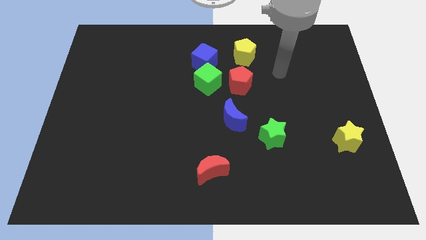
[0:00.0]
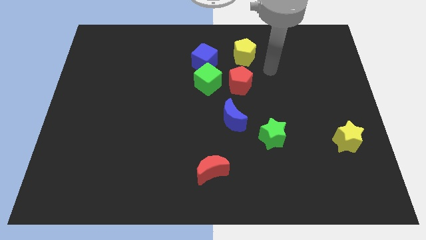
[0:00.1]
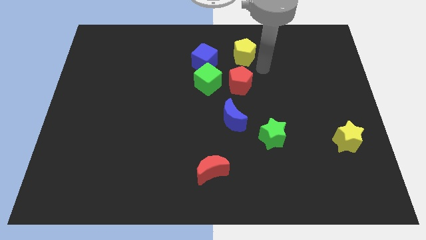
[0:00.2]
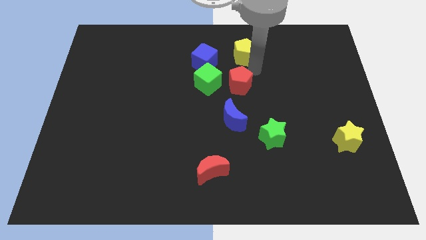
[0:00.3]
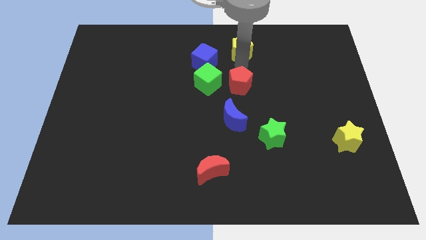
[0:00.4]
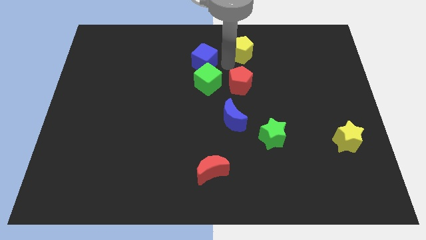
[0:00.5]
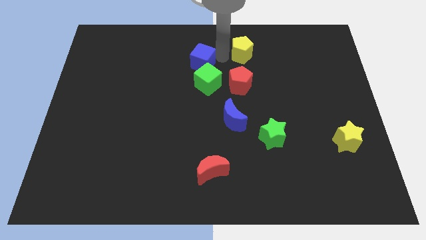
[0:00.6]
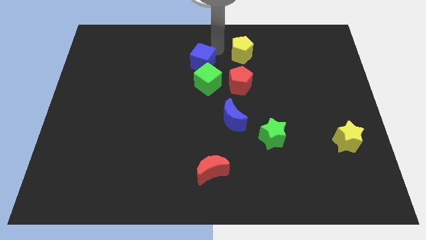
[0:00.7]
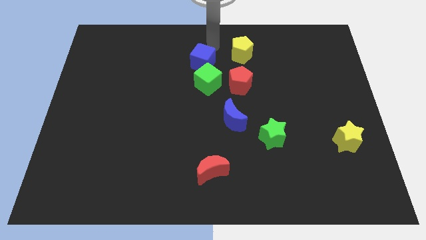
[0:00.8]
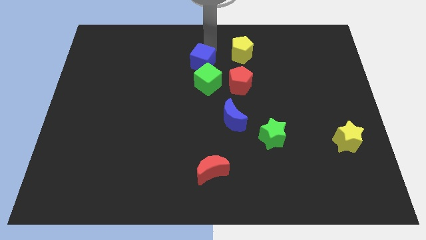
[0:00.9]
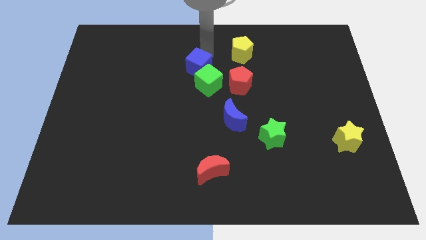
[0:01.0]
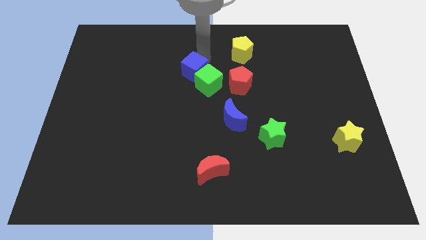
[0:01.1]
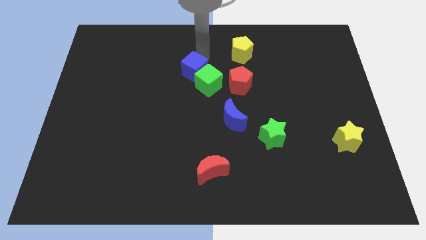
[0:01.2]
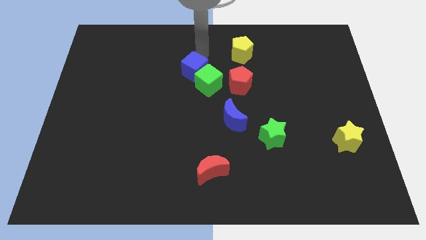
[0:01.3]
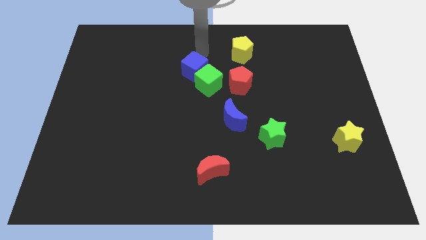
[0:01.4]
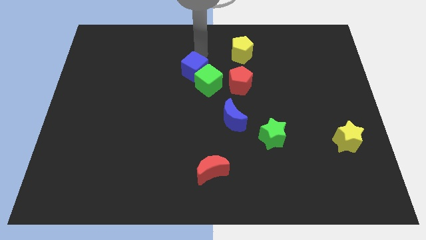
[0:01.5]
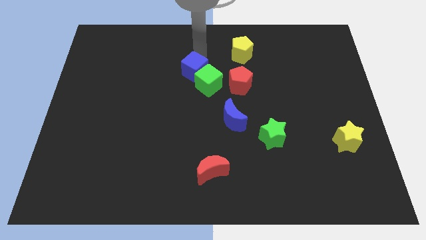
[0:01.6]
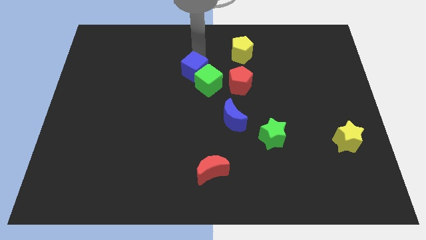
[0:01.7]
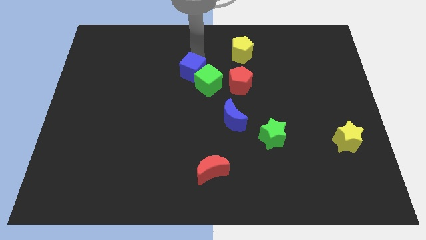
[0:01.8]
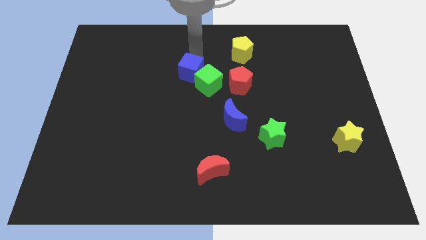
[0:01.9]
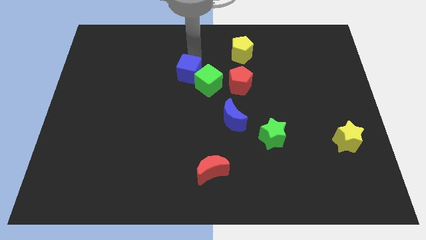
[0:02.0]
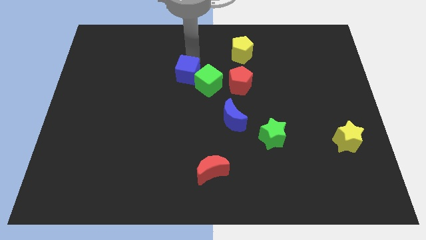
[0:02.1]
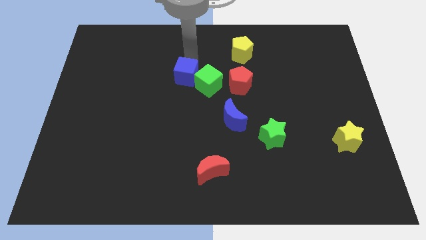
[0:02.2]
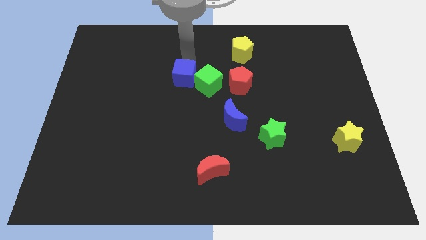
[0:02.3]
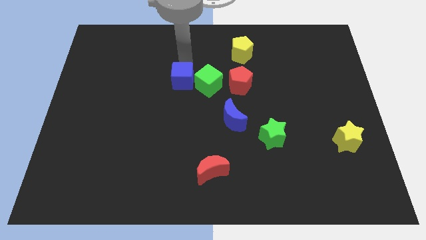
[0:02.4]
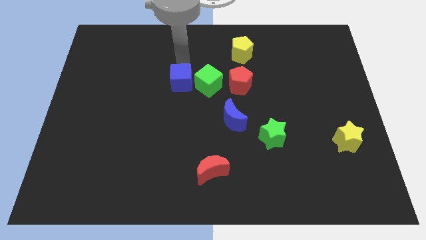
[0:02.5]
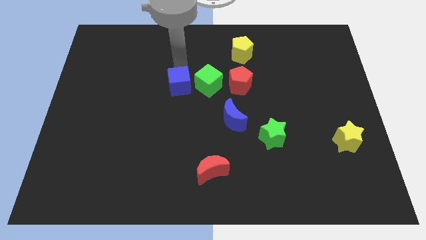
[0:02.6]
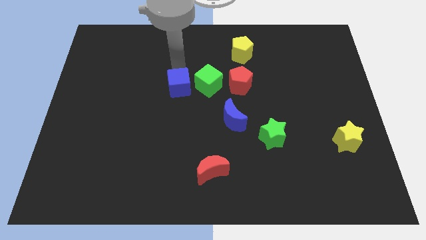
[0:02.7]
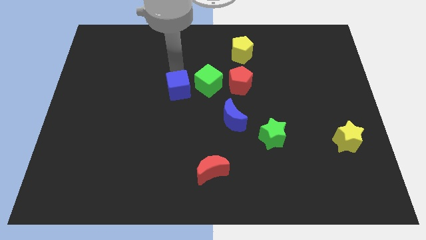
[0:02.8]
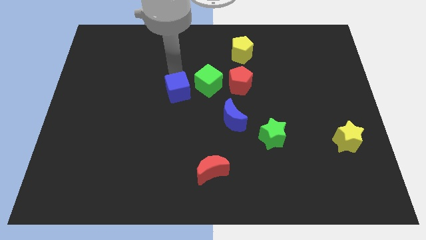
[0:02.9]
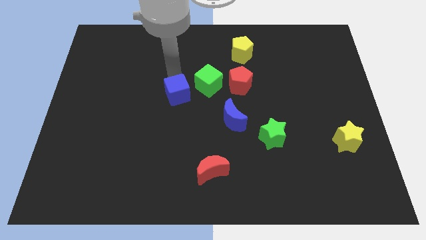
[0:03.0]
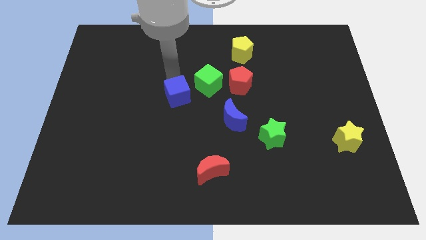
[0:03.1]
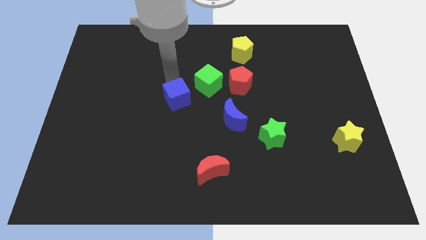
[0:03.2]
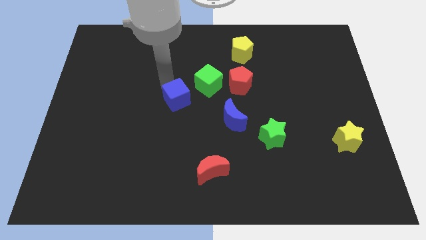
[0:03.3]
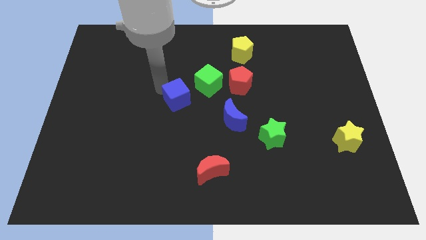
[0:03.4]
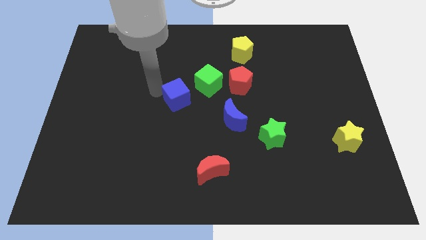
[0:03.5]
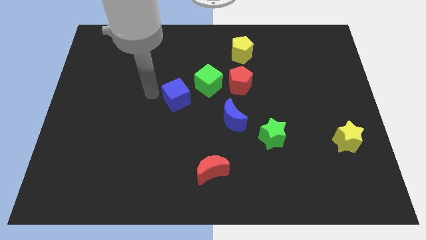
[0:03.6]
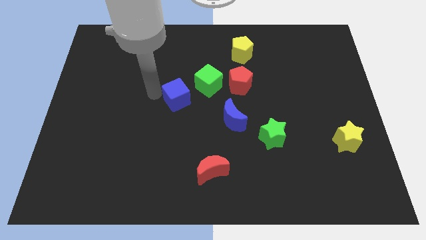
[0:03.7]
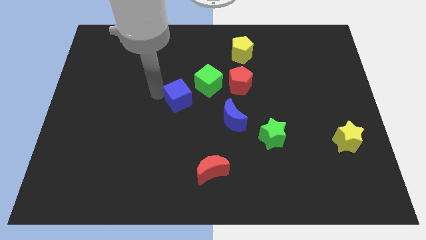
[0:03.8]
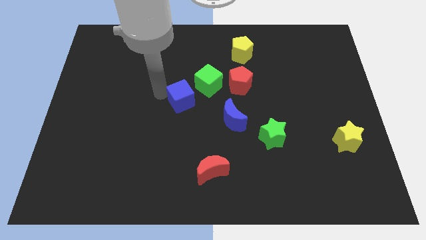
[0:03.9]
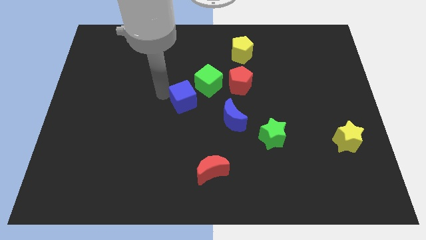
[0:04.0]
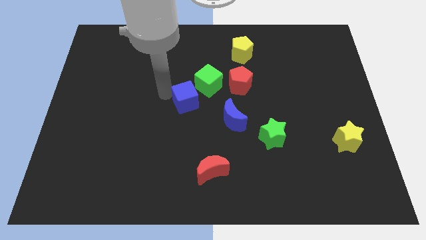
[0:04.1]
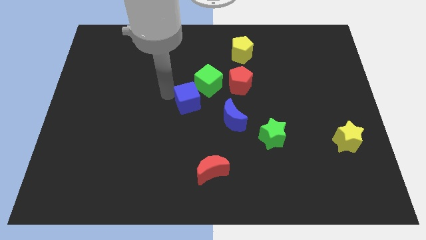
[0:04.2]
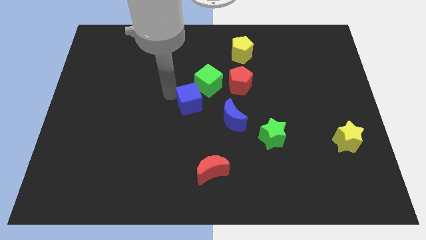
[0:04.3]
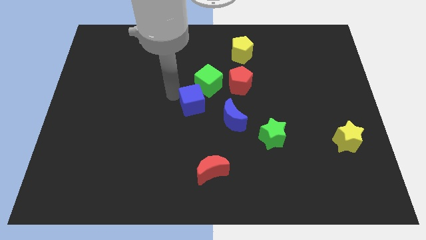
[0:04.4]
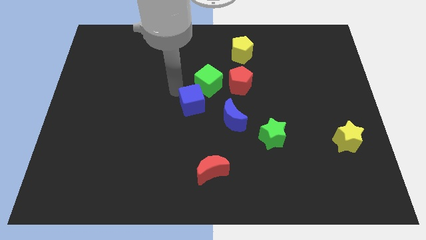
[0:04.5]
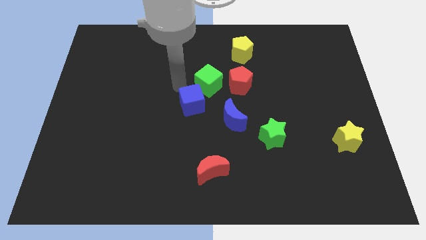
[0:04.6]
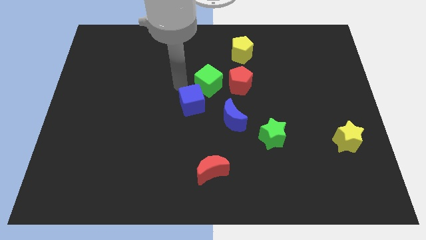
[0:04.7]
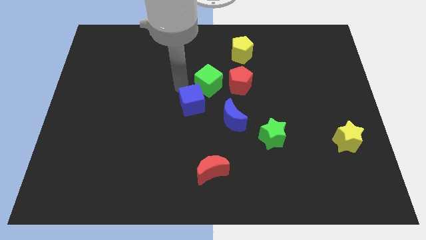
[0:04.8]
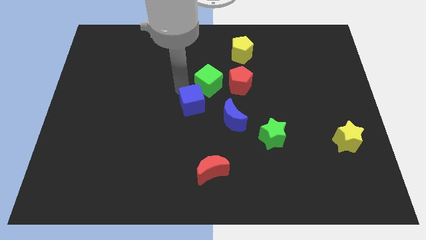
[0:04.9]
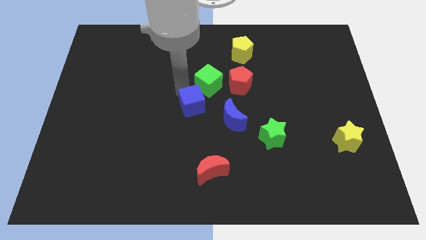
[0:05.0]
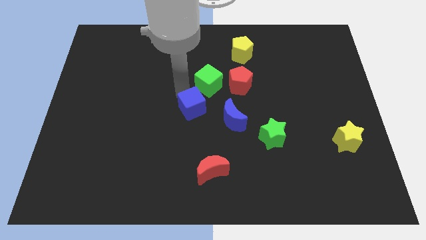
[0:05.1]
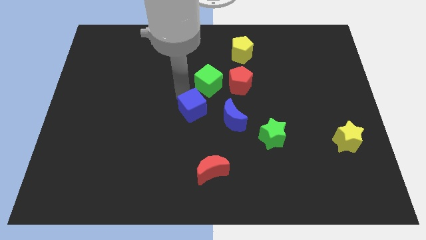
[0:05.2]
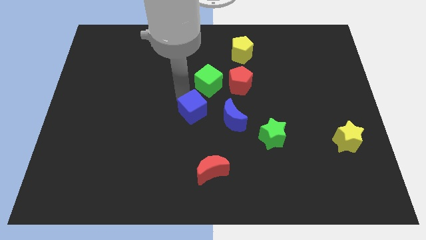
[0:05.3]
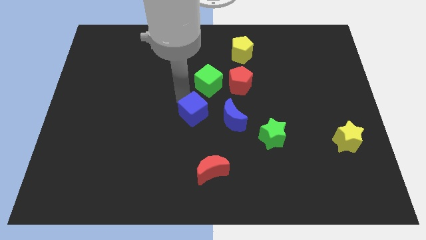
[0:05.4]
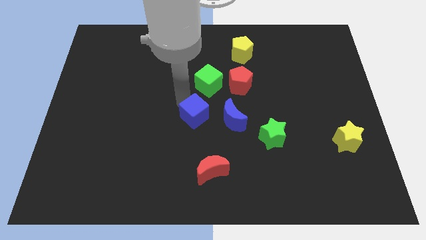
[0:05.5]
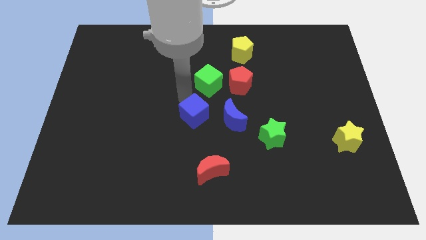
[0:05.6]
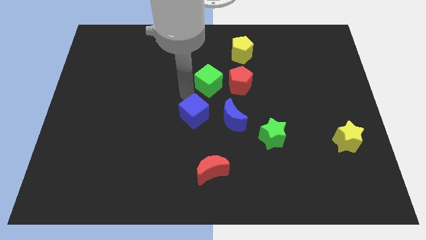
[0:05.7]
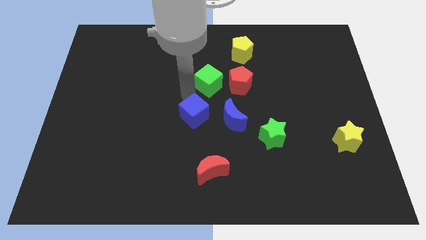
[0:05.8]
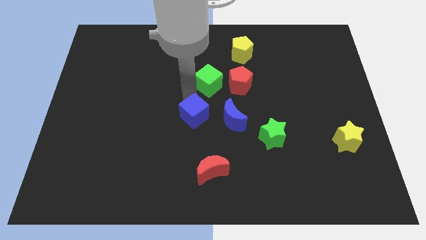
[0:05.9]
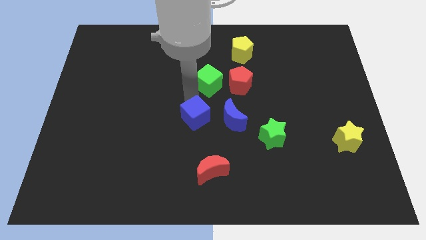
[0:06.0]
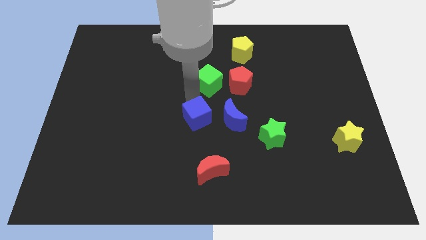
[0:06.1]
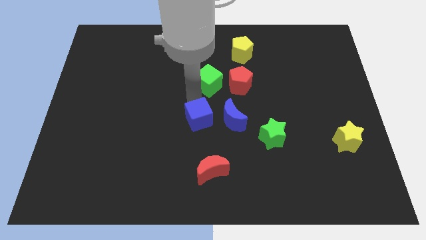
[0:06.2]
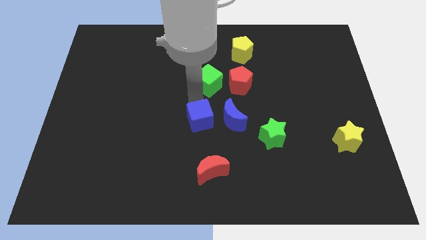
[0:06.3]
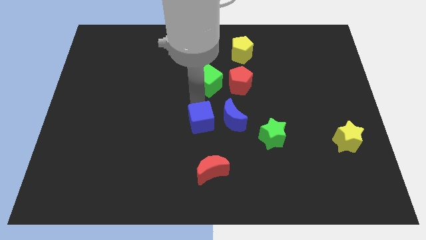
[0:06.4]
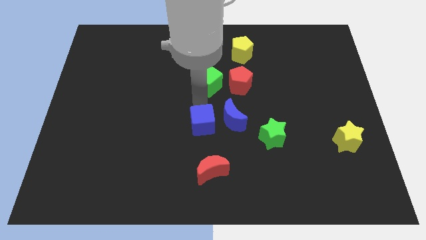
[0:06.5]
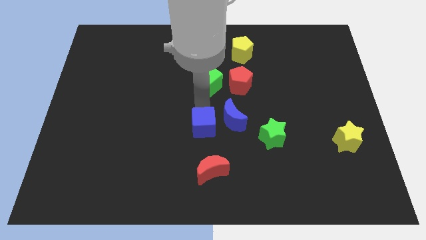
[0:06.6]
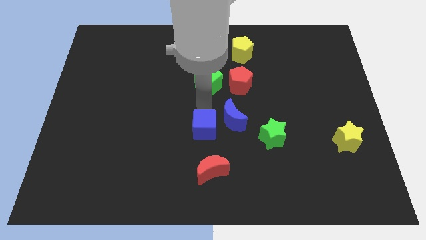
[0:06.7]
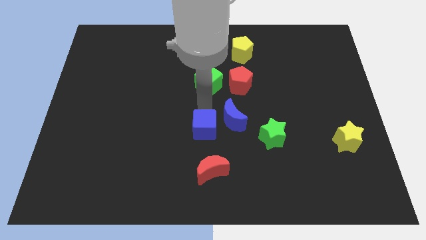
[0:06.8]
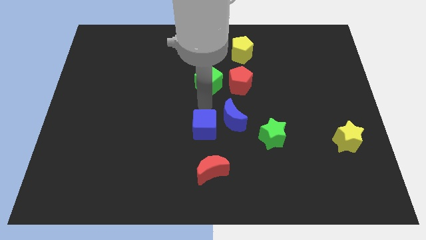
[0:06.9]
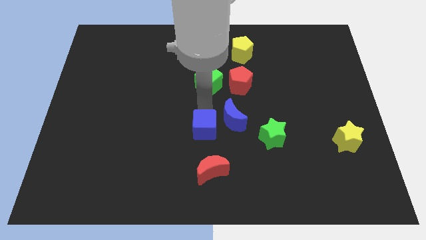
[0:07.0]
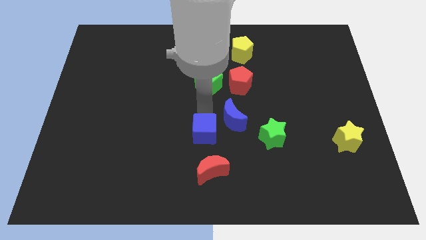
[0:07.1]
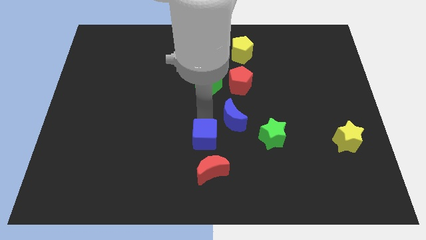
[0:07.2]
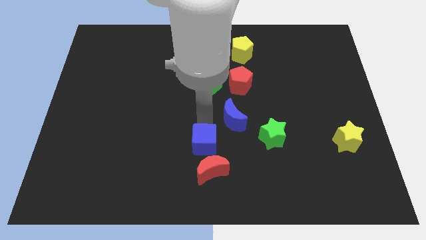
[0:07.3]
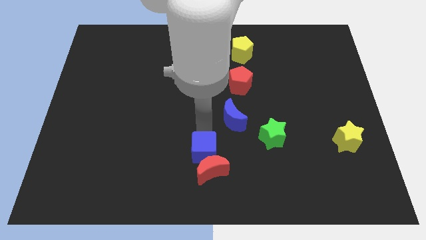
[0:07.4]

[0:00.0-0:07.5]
move the blue cube close to the red moon
